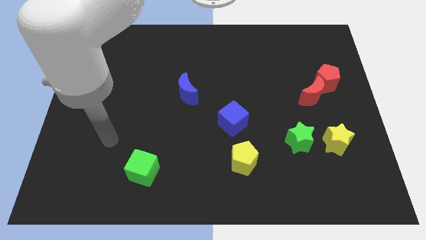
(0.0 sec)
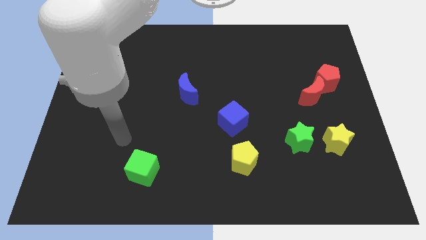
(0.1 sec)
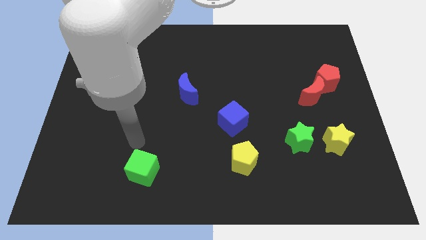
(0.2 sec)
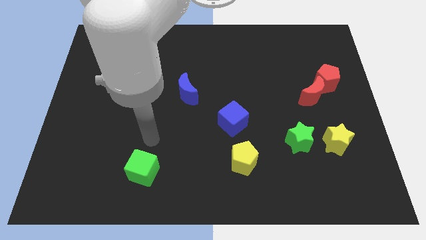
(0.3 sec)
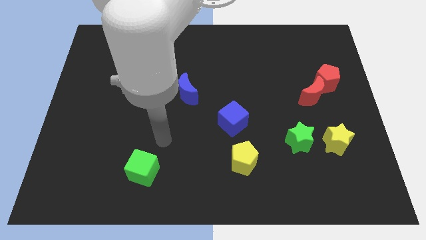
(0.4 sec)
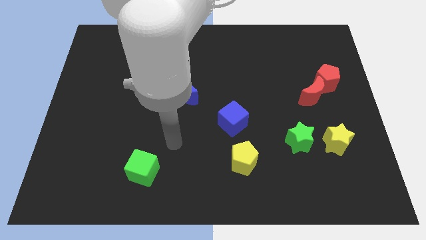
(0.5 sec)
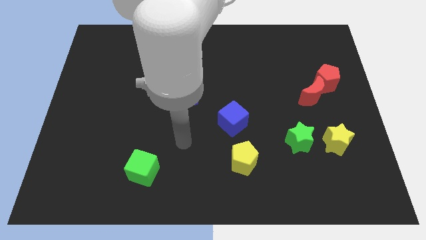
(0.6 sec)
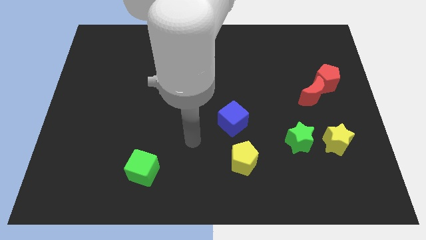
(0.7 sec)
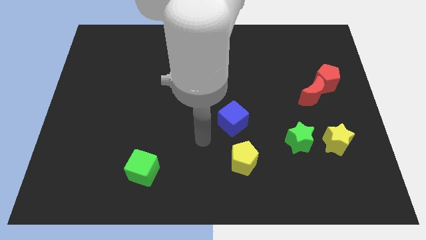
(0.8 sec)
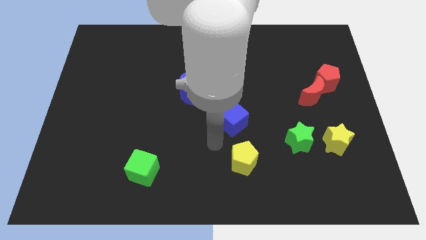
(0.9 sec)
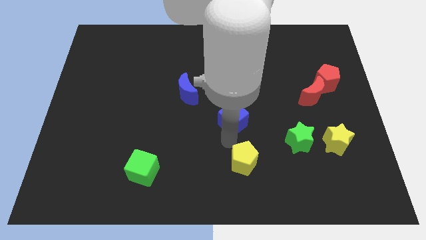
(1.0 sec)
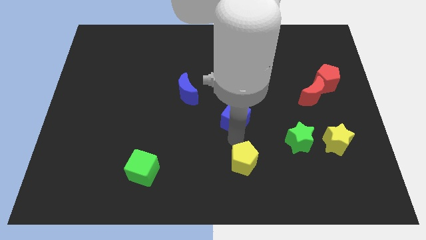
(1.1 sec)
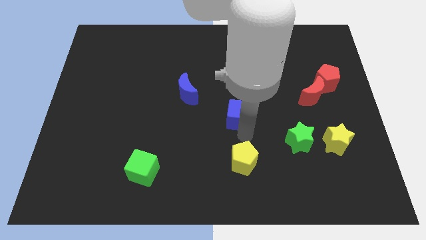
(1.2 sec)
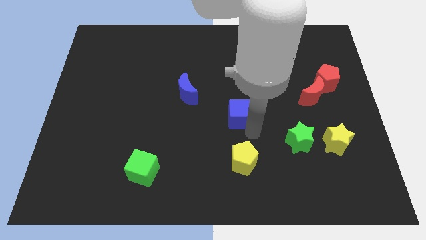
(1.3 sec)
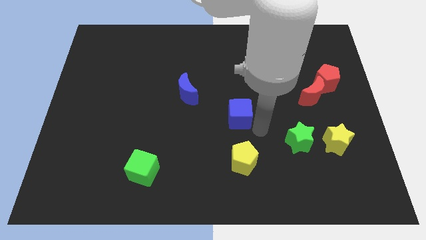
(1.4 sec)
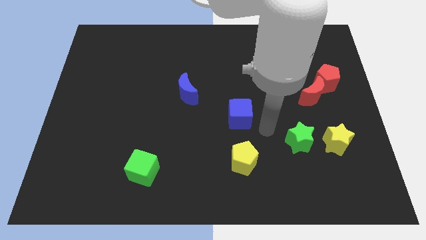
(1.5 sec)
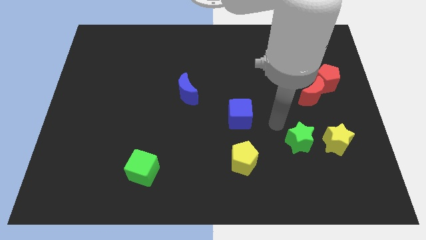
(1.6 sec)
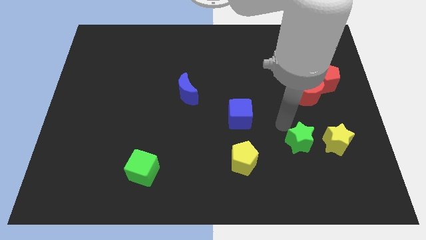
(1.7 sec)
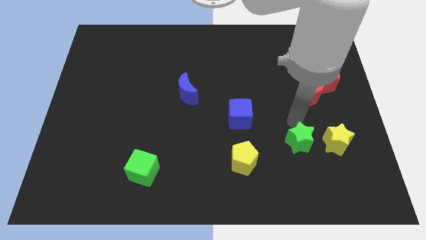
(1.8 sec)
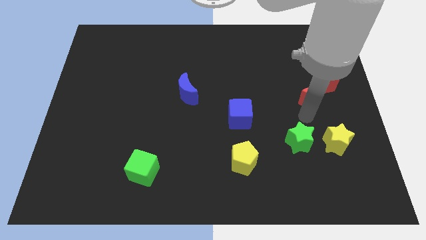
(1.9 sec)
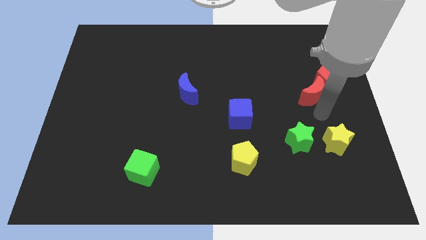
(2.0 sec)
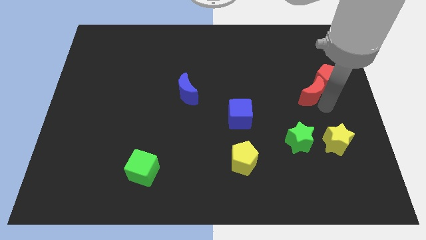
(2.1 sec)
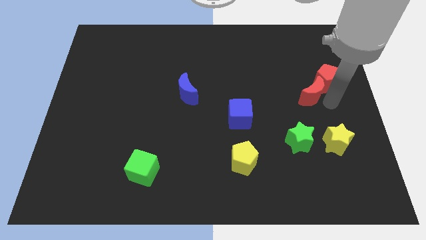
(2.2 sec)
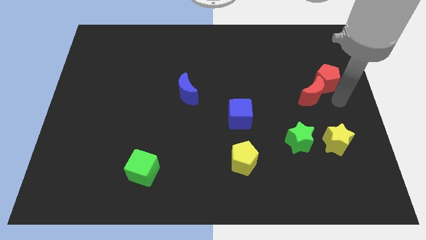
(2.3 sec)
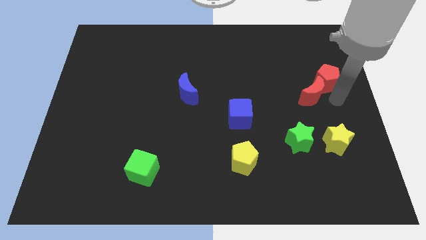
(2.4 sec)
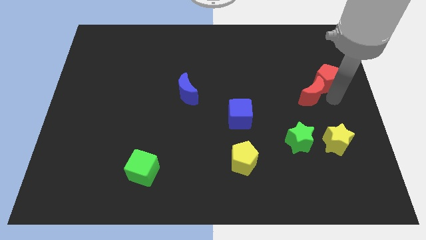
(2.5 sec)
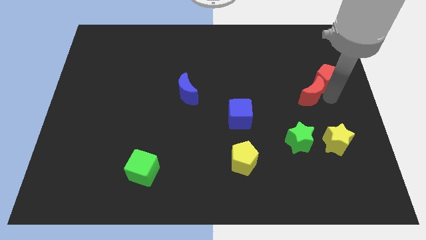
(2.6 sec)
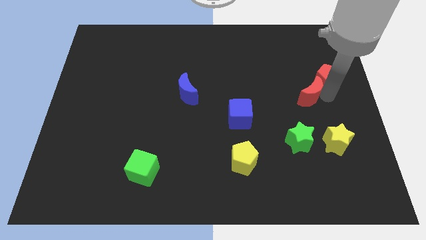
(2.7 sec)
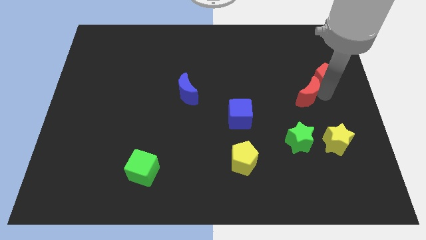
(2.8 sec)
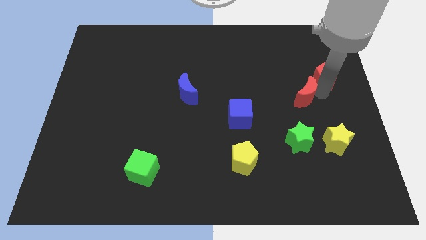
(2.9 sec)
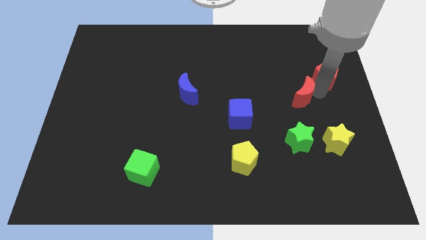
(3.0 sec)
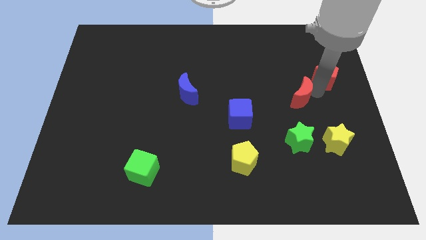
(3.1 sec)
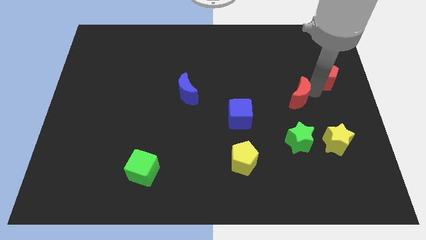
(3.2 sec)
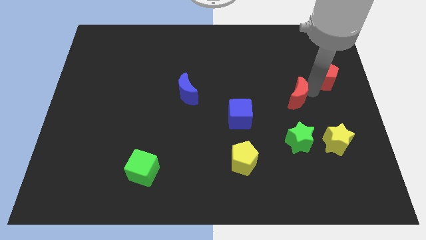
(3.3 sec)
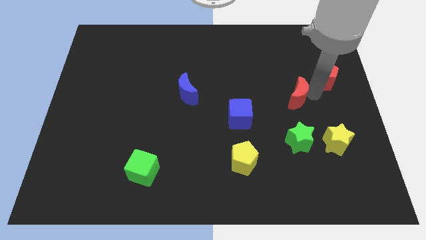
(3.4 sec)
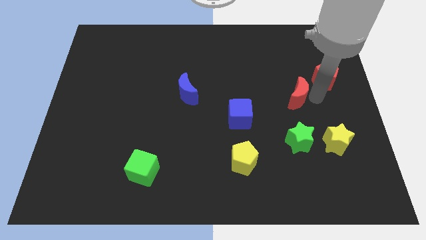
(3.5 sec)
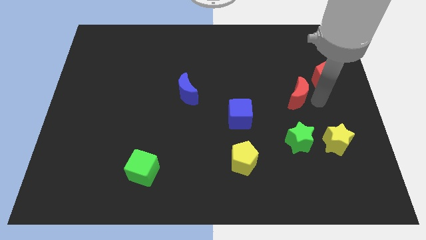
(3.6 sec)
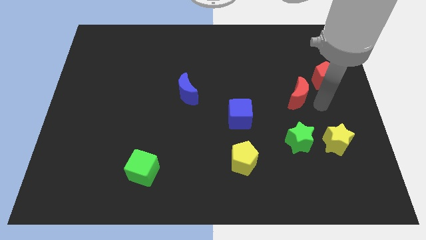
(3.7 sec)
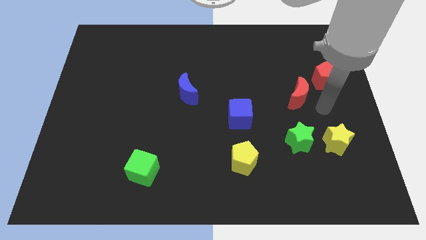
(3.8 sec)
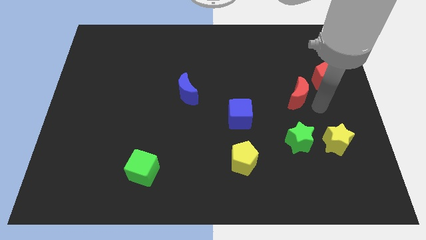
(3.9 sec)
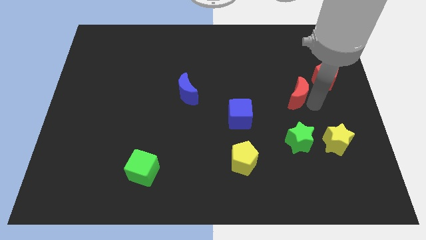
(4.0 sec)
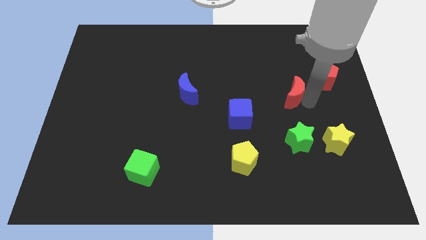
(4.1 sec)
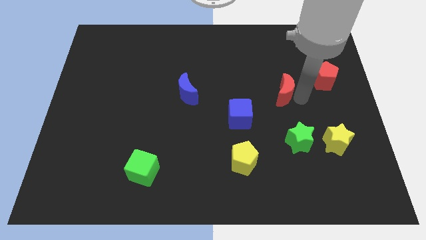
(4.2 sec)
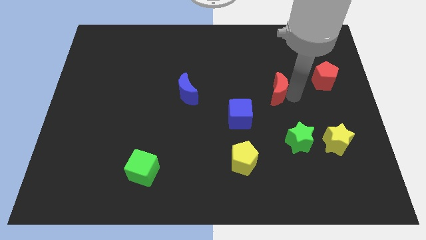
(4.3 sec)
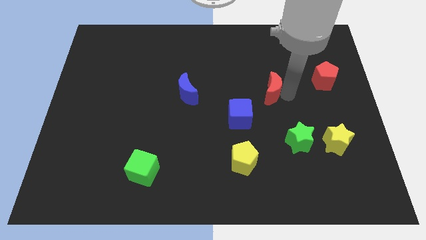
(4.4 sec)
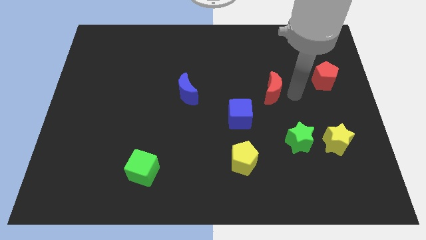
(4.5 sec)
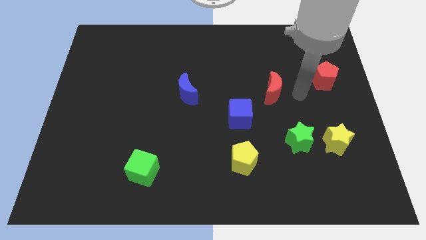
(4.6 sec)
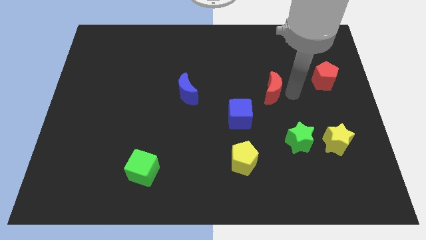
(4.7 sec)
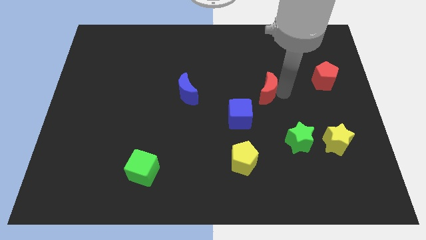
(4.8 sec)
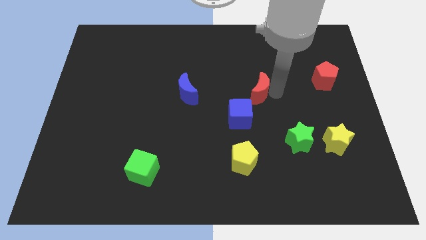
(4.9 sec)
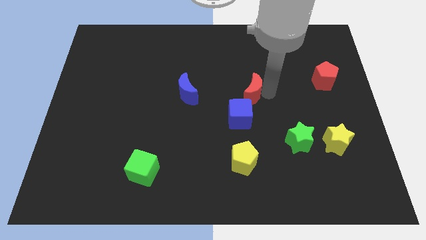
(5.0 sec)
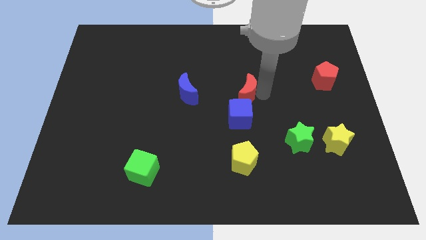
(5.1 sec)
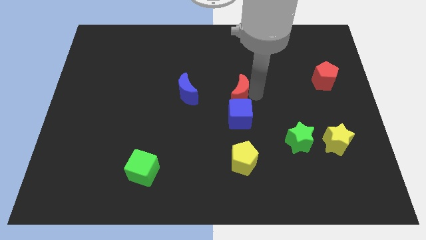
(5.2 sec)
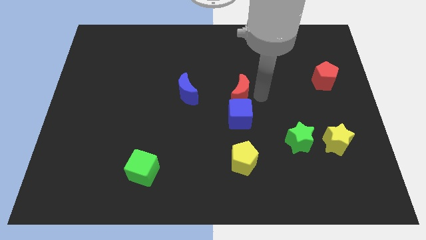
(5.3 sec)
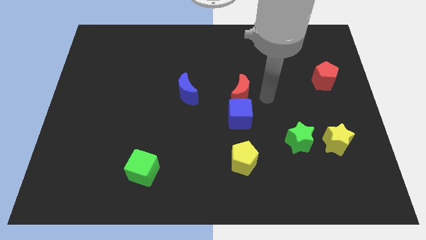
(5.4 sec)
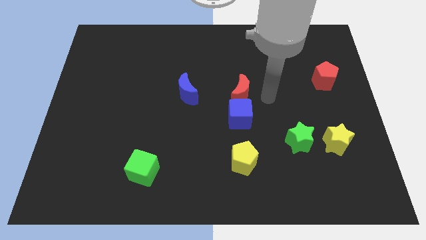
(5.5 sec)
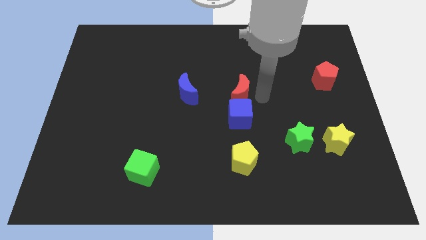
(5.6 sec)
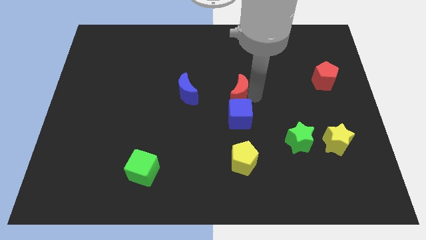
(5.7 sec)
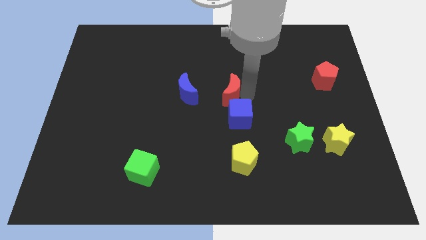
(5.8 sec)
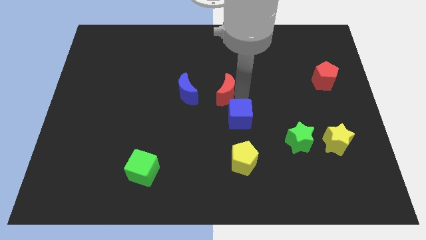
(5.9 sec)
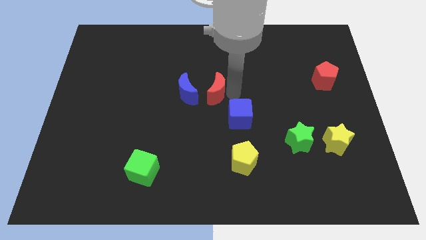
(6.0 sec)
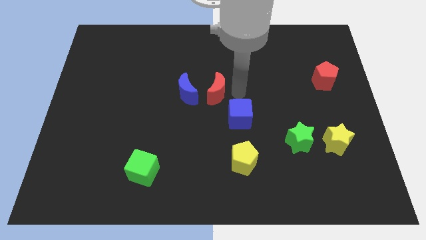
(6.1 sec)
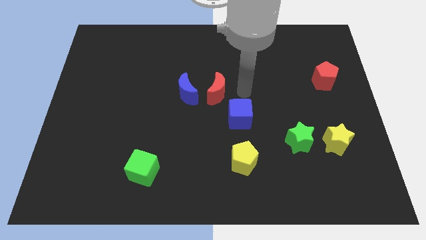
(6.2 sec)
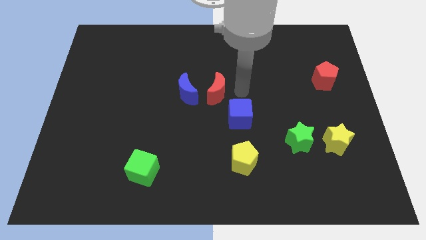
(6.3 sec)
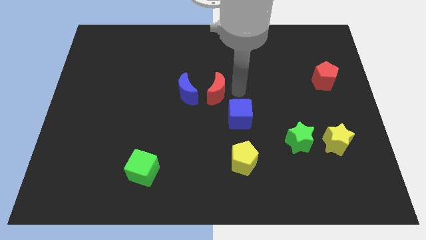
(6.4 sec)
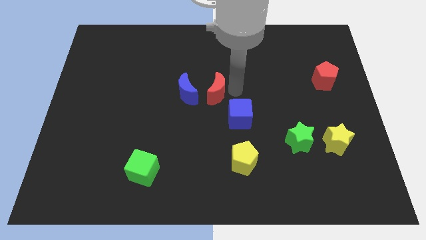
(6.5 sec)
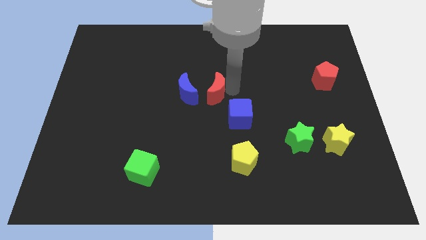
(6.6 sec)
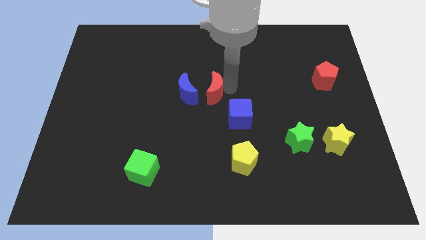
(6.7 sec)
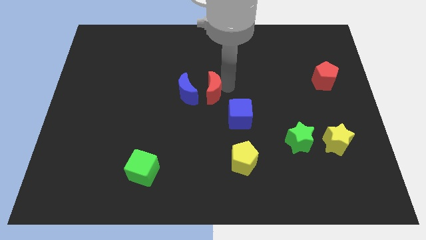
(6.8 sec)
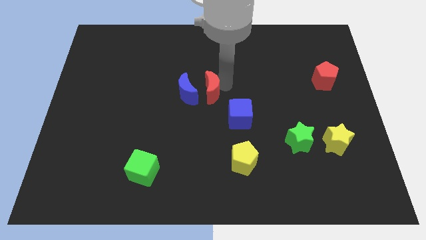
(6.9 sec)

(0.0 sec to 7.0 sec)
slide the red moon close to the blue moon

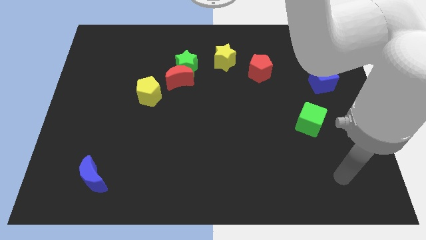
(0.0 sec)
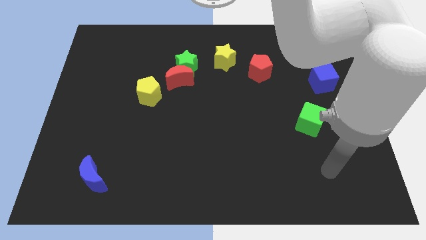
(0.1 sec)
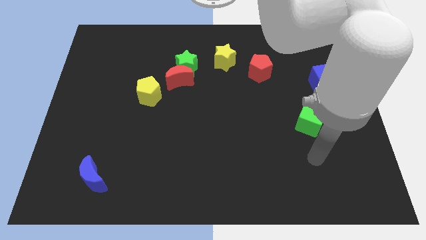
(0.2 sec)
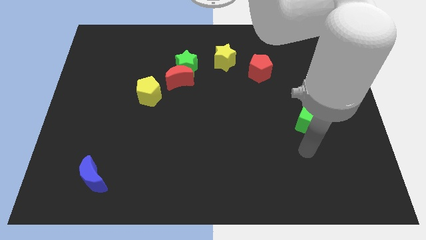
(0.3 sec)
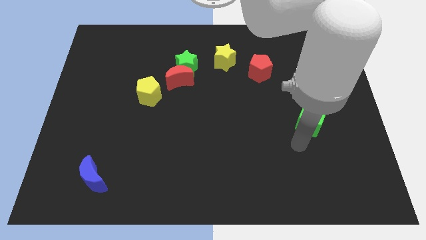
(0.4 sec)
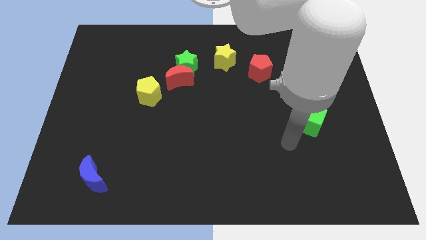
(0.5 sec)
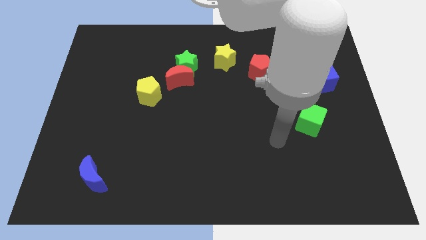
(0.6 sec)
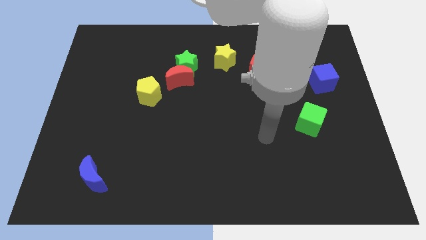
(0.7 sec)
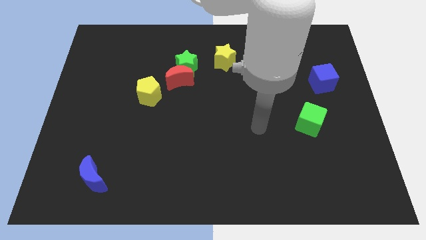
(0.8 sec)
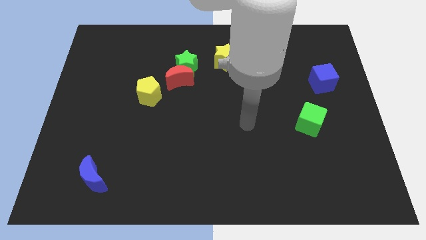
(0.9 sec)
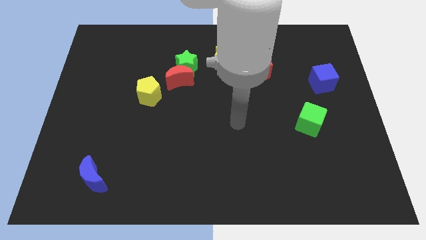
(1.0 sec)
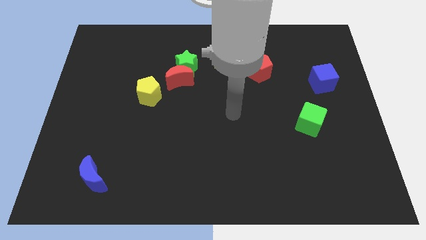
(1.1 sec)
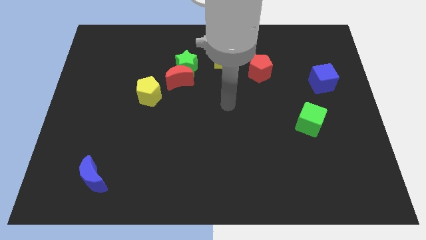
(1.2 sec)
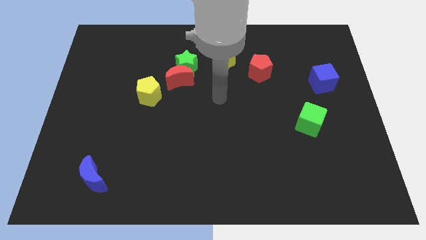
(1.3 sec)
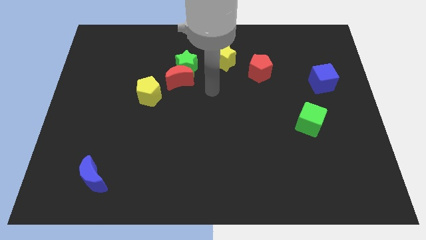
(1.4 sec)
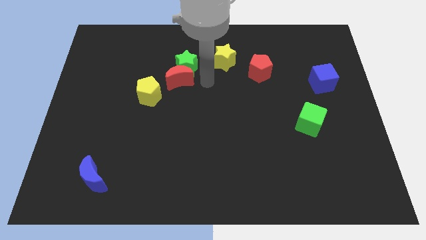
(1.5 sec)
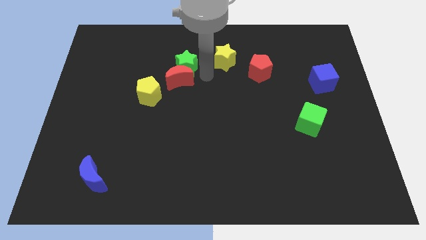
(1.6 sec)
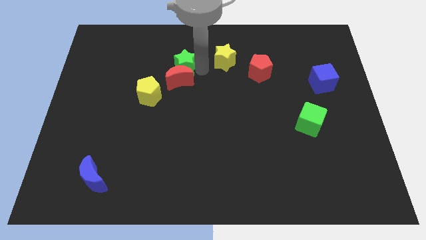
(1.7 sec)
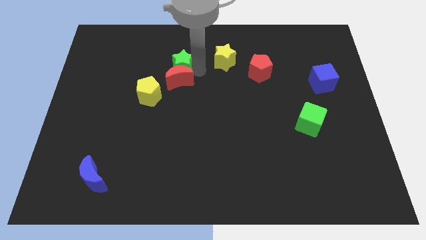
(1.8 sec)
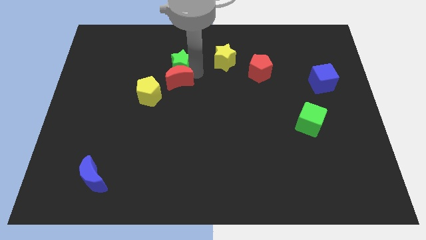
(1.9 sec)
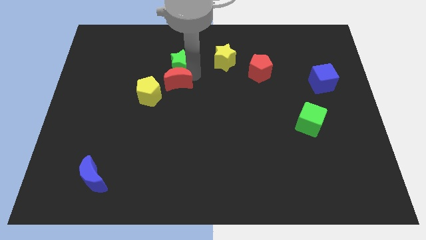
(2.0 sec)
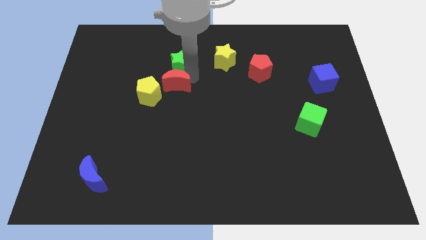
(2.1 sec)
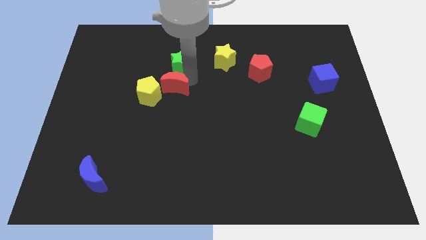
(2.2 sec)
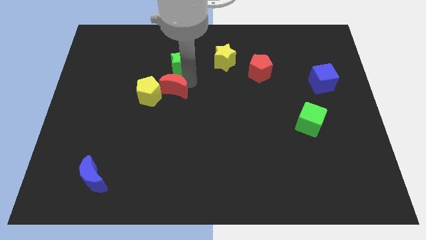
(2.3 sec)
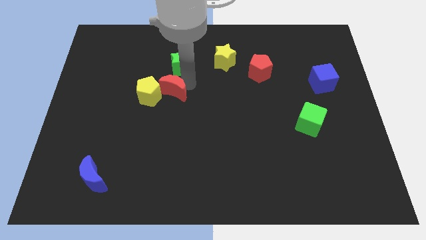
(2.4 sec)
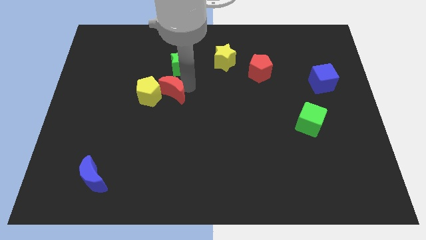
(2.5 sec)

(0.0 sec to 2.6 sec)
push the red moon next to the yellow pentagon
